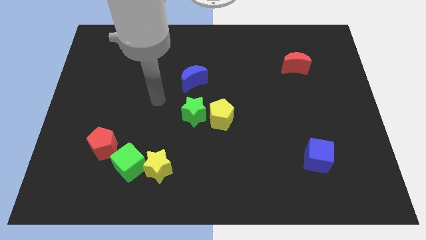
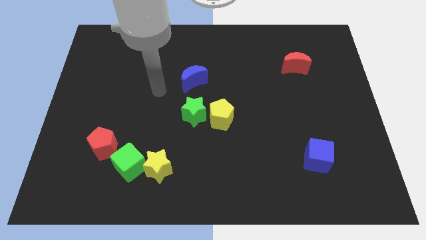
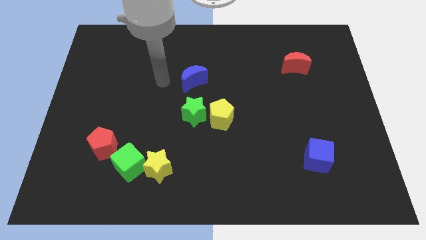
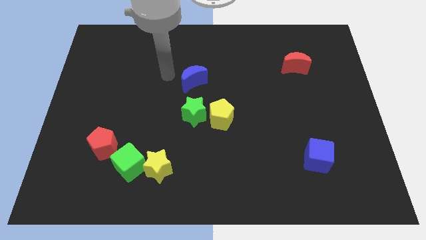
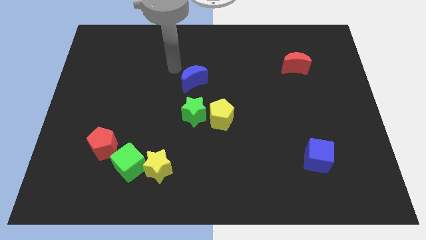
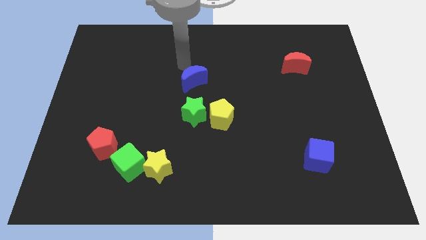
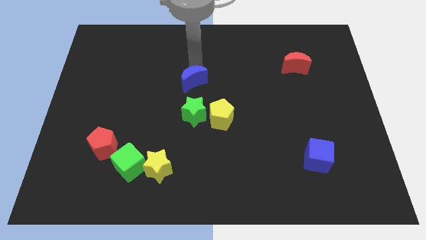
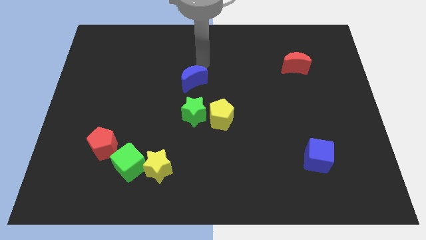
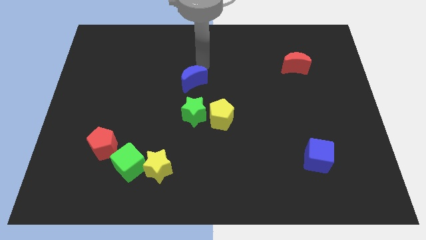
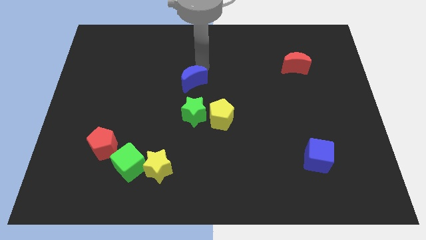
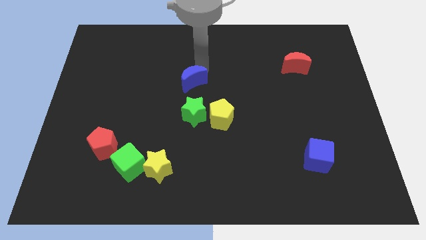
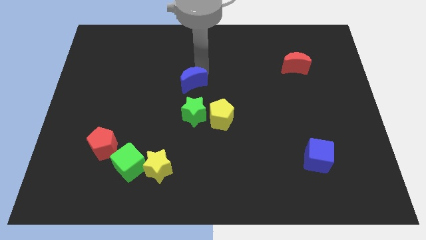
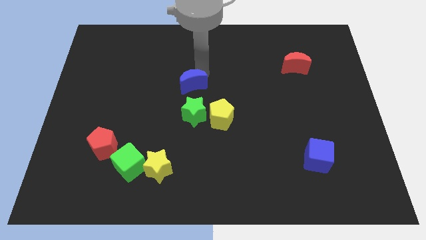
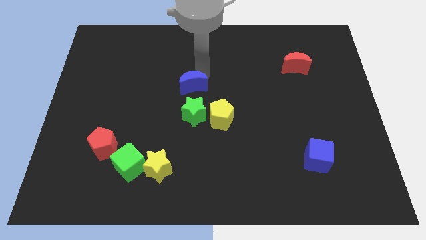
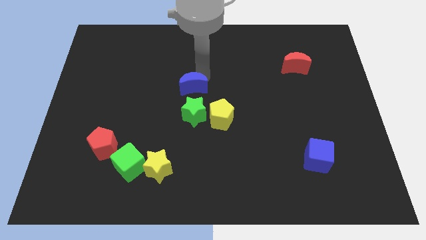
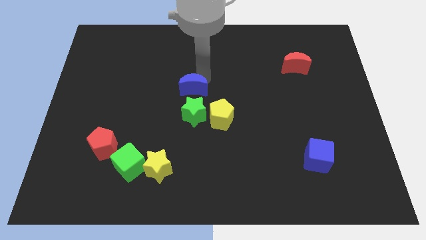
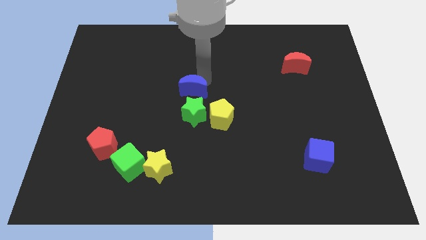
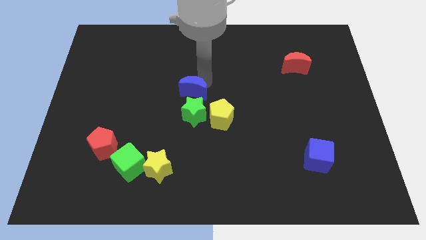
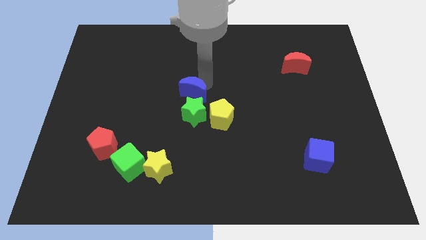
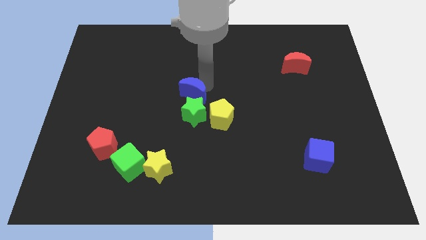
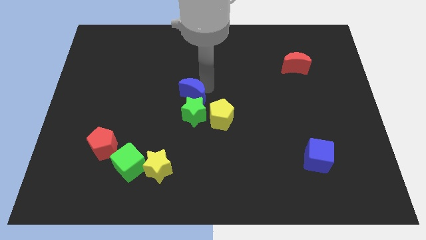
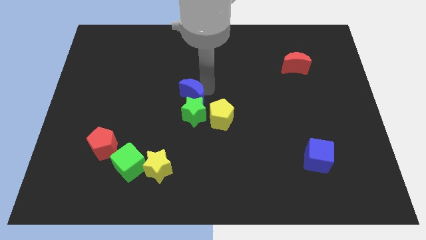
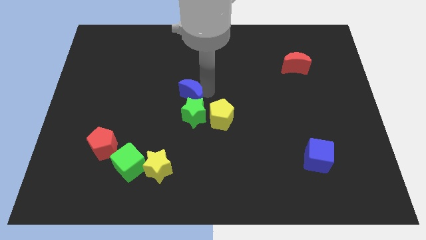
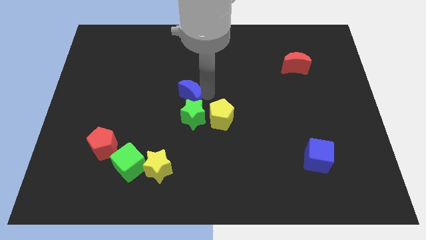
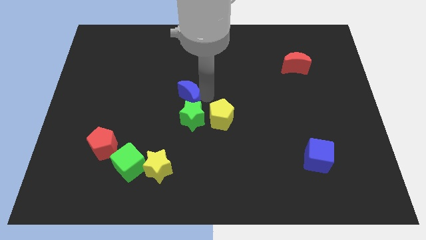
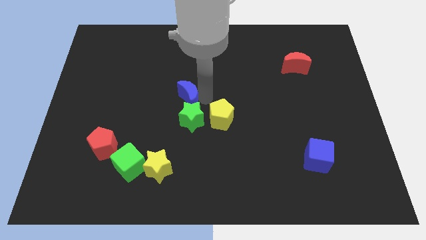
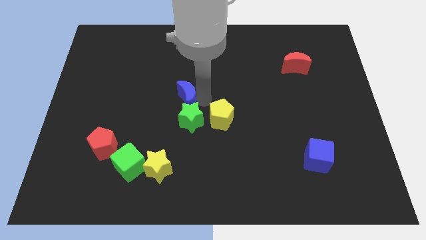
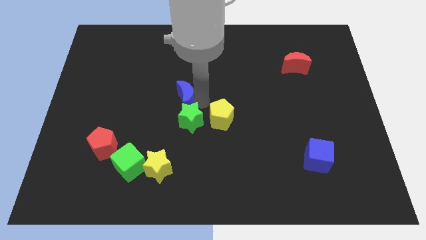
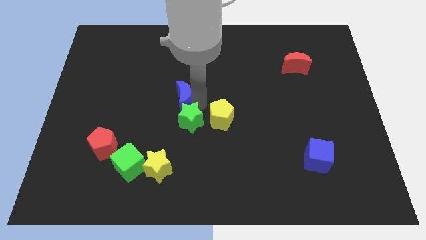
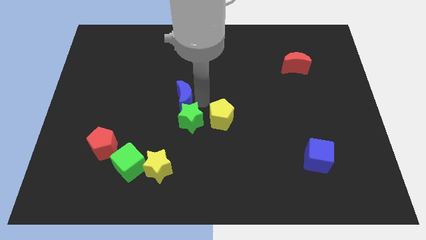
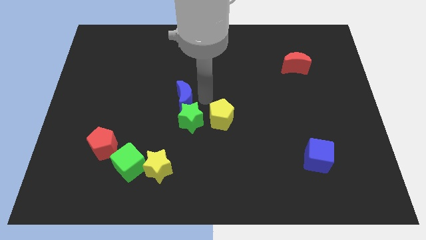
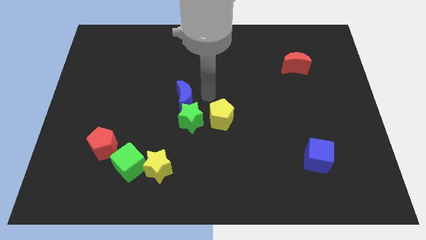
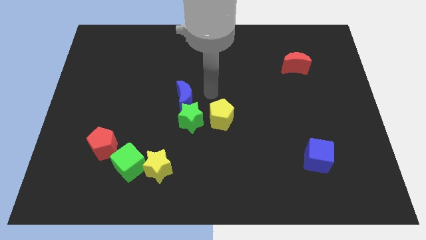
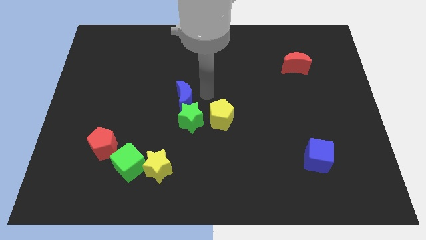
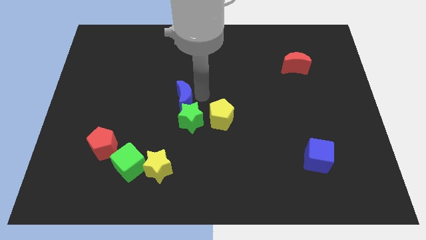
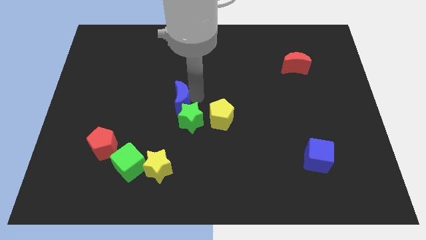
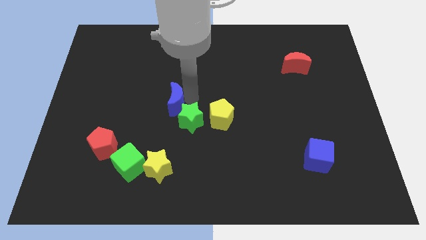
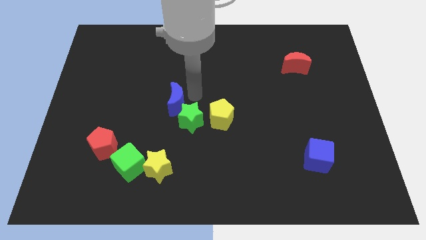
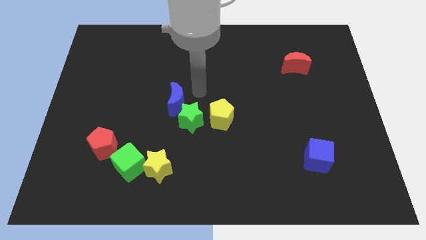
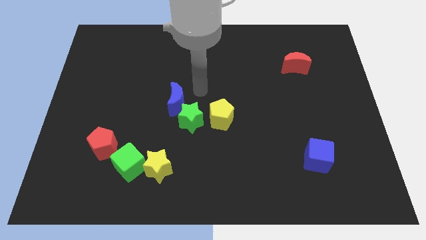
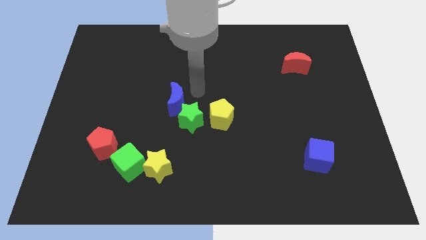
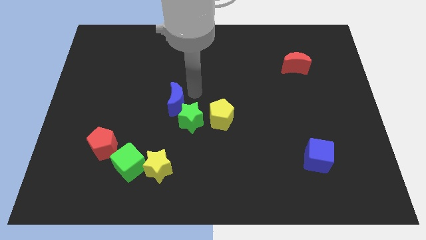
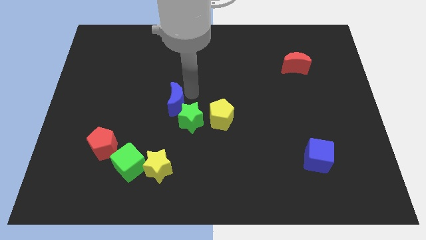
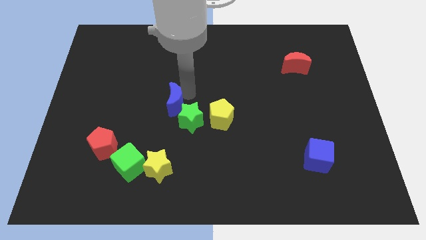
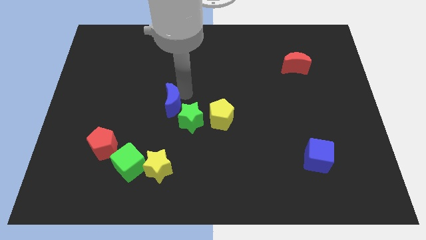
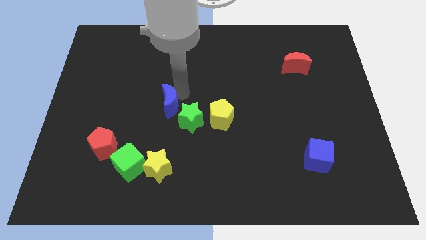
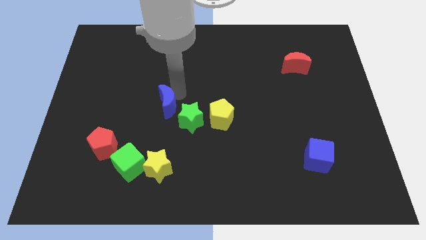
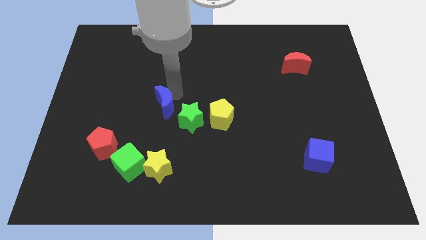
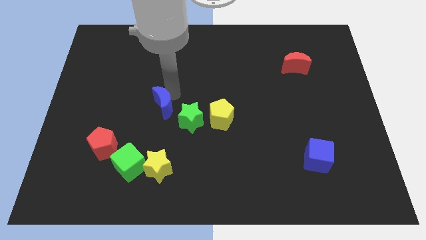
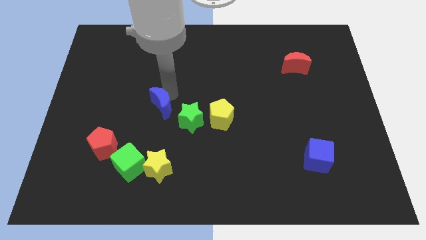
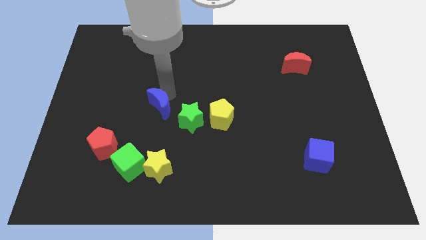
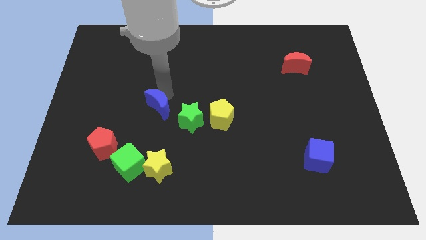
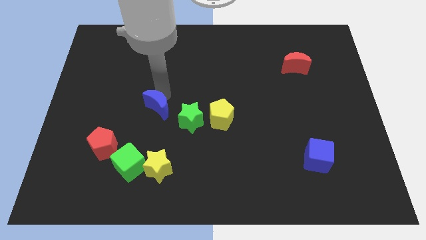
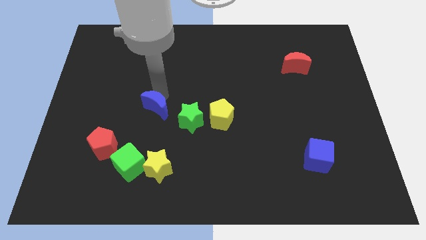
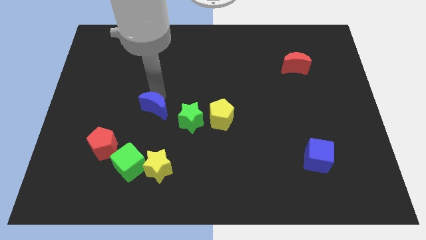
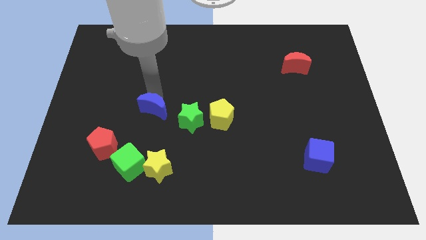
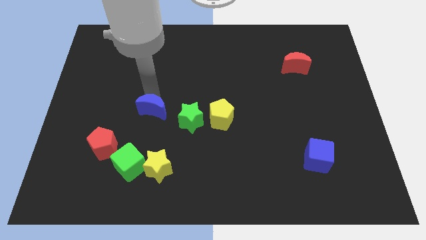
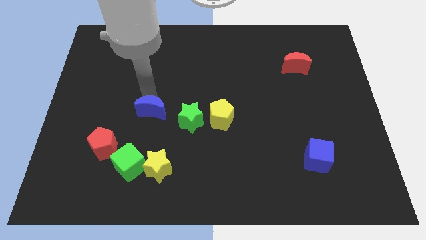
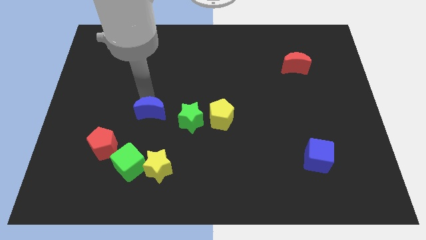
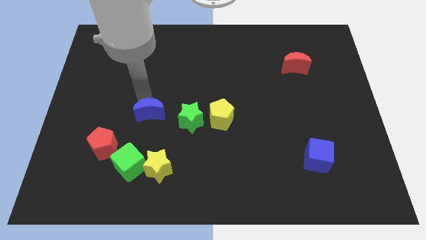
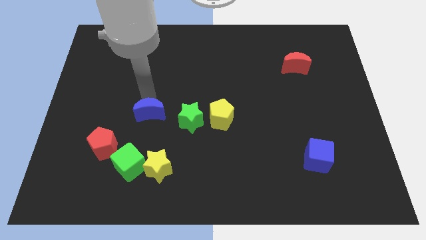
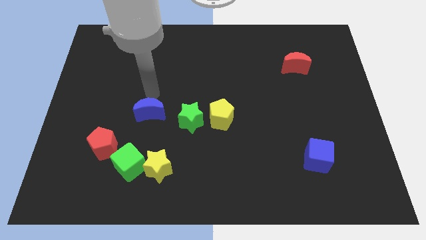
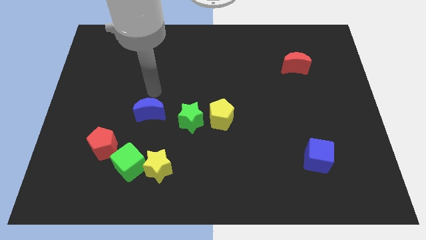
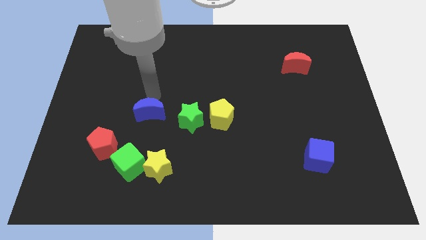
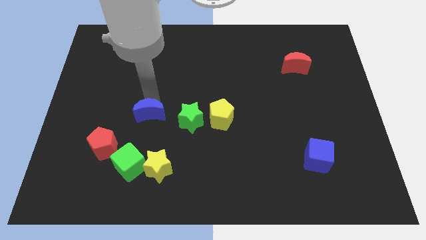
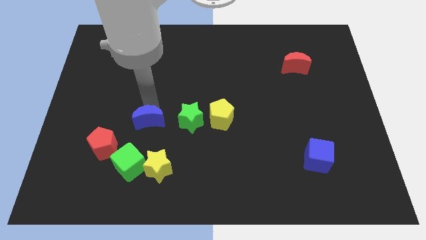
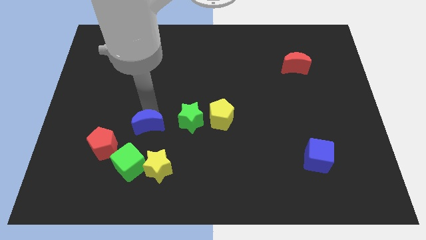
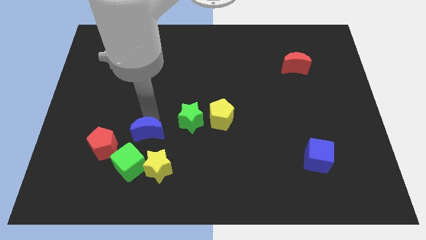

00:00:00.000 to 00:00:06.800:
move the blue moon to the top left side of the yellow star
